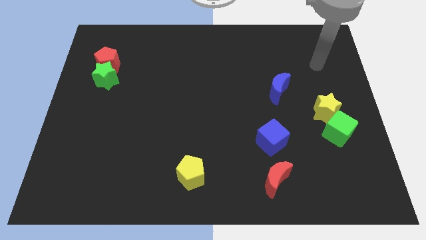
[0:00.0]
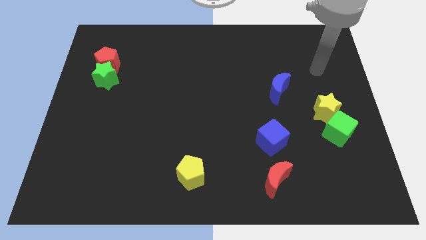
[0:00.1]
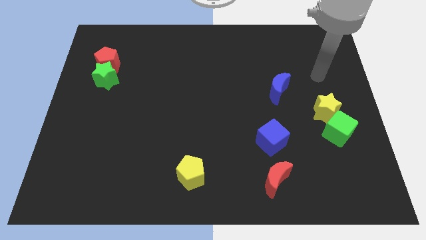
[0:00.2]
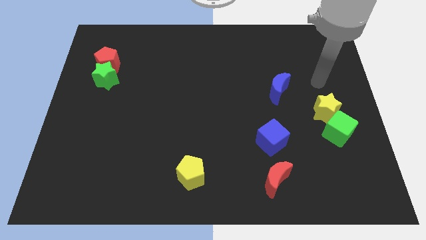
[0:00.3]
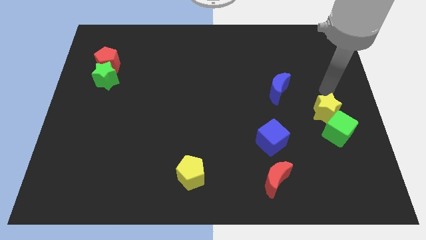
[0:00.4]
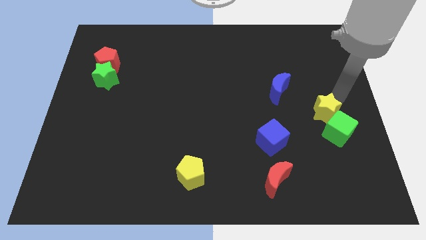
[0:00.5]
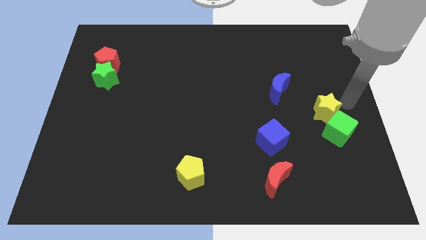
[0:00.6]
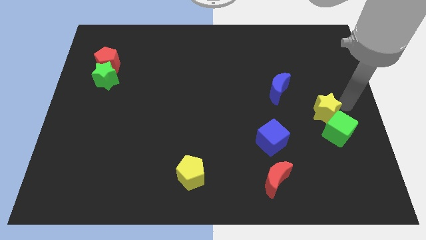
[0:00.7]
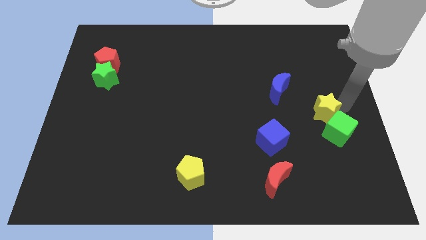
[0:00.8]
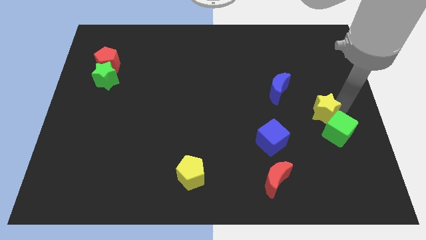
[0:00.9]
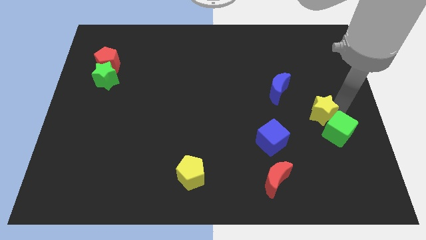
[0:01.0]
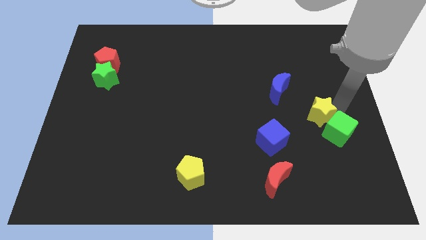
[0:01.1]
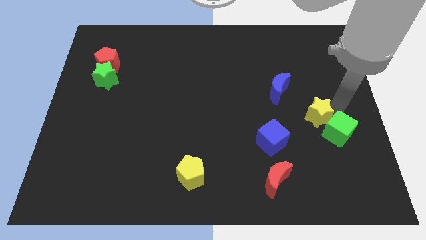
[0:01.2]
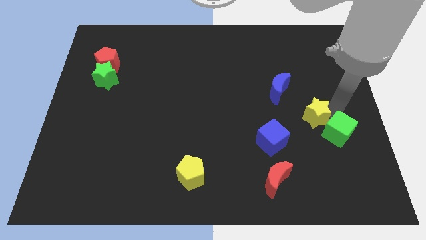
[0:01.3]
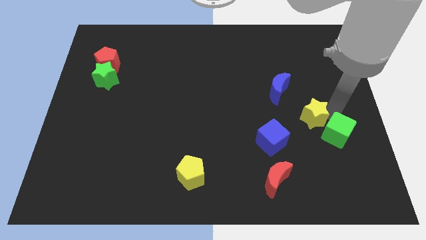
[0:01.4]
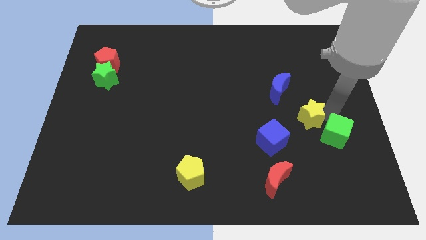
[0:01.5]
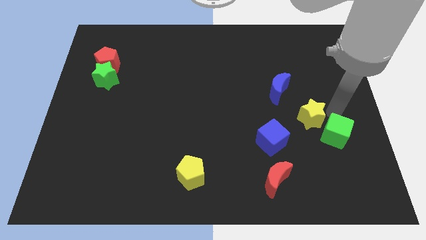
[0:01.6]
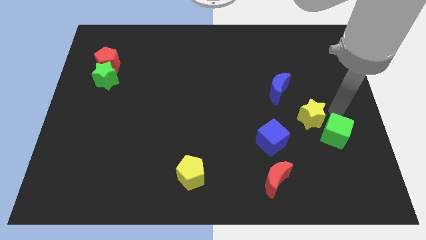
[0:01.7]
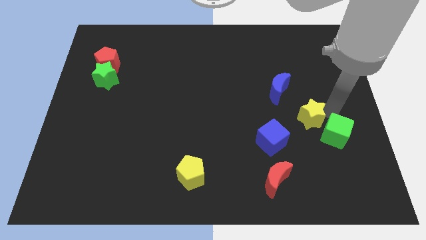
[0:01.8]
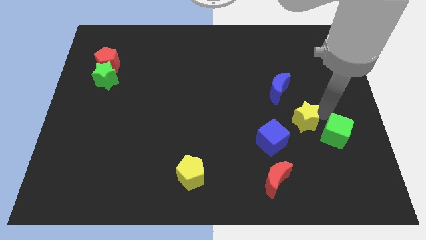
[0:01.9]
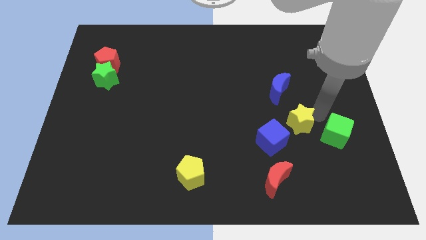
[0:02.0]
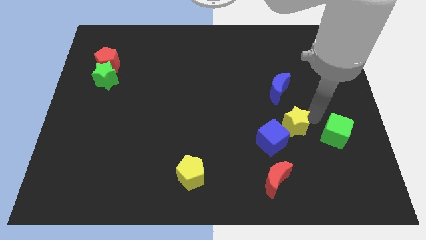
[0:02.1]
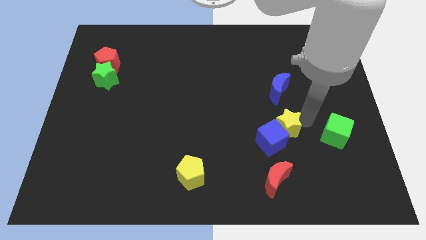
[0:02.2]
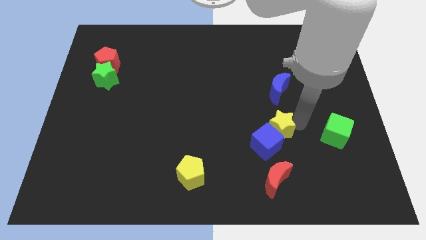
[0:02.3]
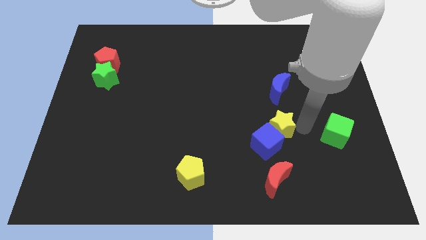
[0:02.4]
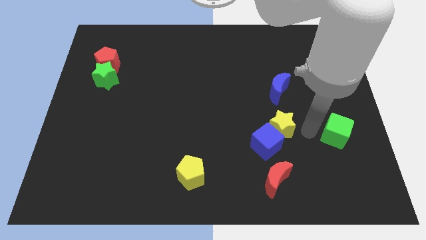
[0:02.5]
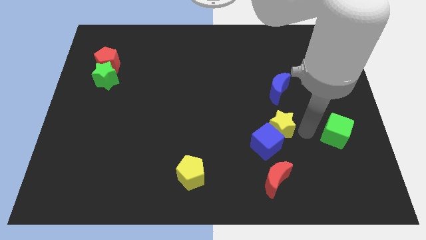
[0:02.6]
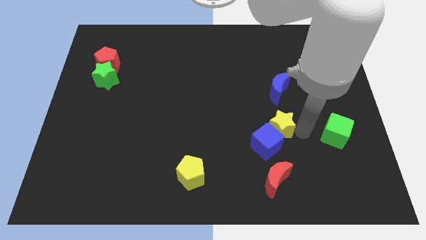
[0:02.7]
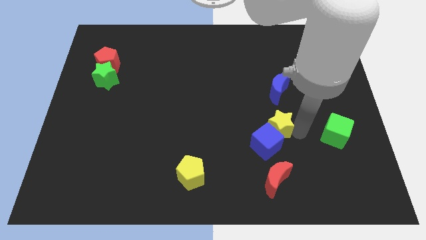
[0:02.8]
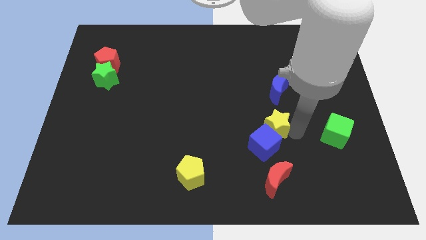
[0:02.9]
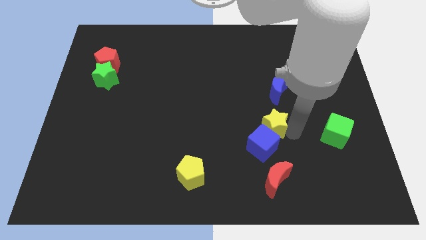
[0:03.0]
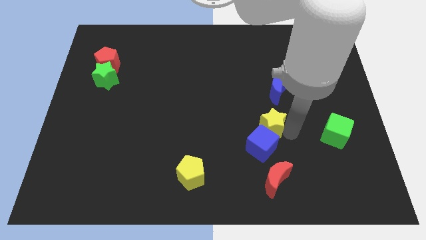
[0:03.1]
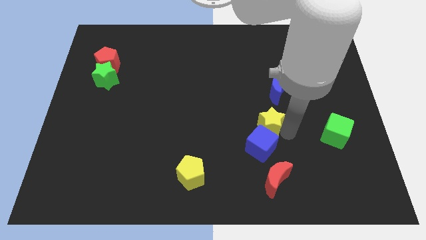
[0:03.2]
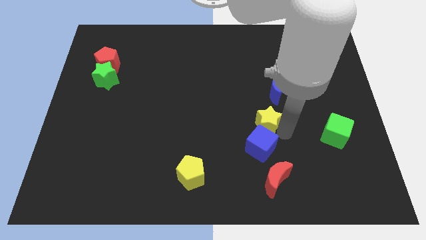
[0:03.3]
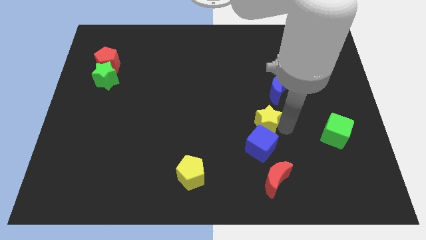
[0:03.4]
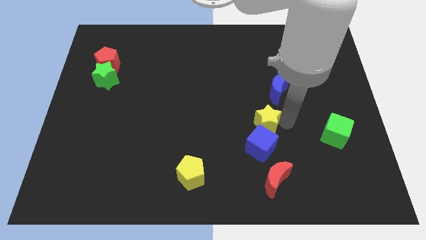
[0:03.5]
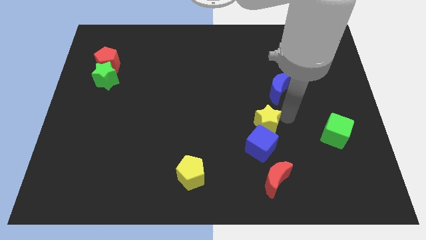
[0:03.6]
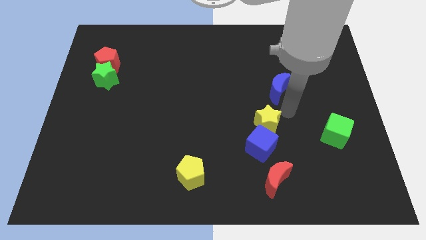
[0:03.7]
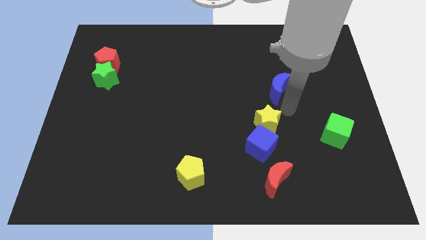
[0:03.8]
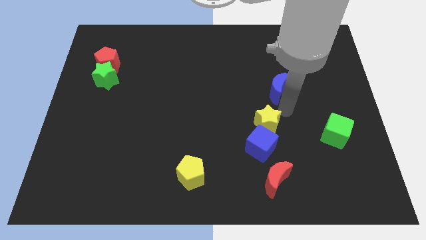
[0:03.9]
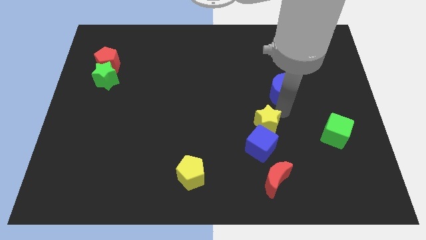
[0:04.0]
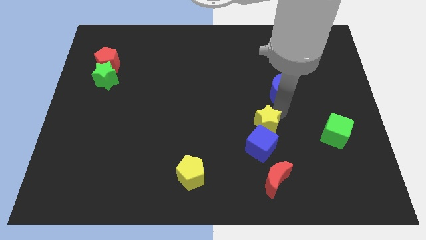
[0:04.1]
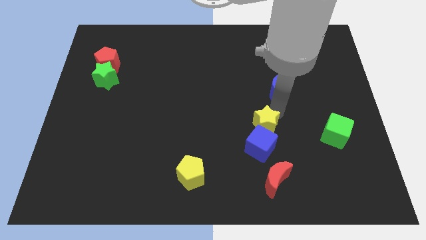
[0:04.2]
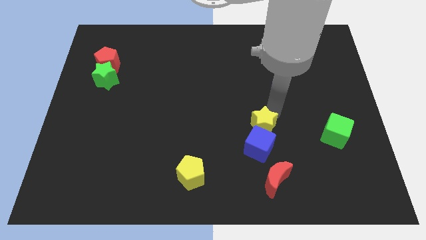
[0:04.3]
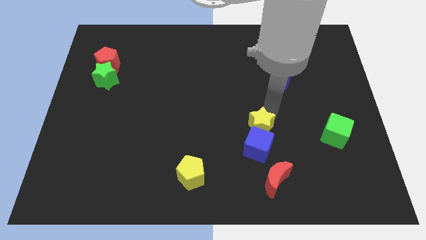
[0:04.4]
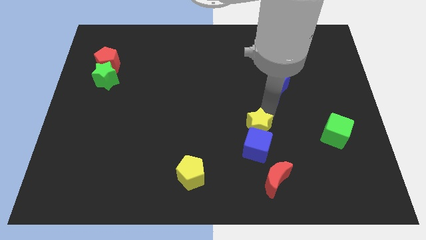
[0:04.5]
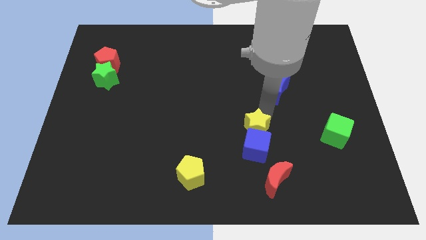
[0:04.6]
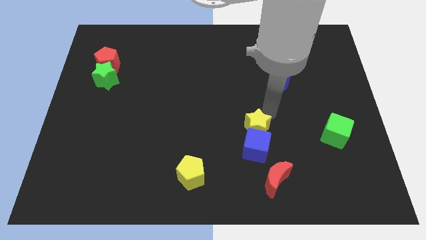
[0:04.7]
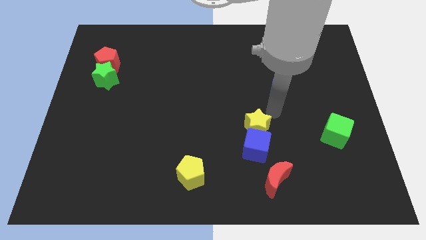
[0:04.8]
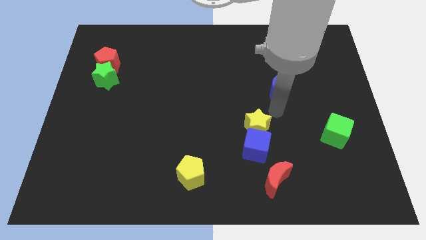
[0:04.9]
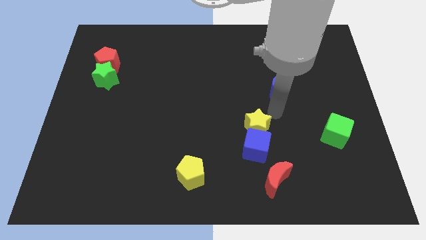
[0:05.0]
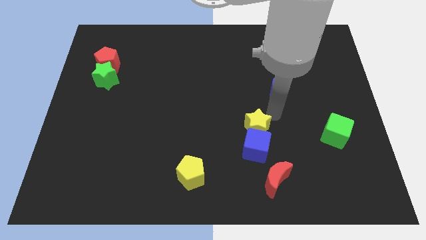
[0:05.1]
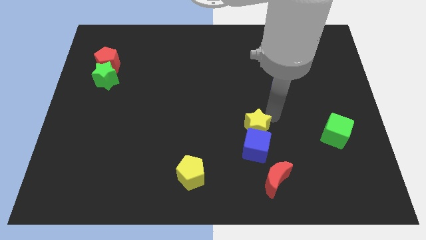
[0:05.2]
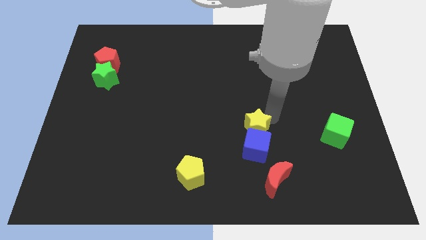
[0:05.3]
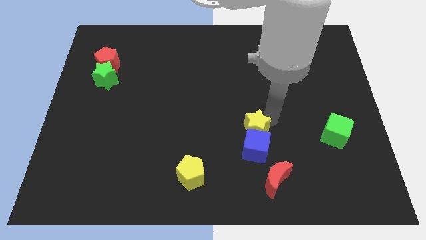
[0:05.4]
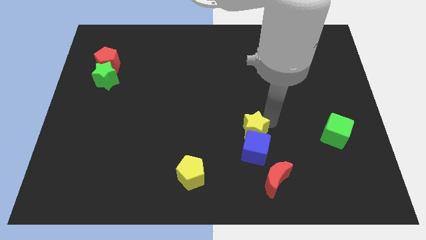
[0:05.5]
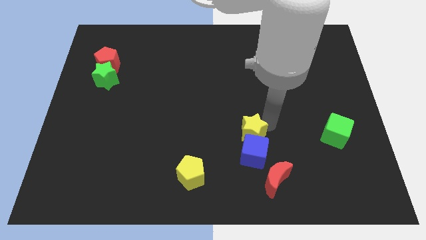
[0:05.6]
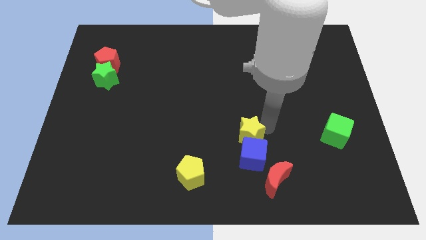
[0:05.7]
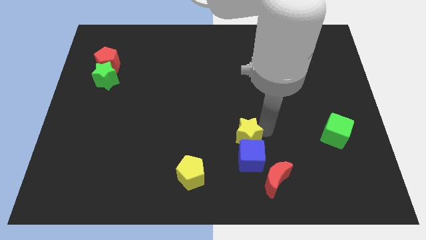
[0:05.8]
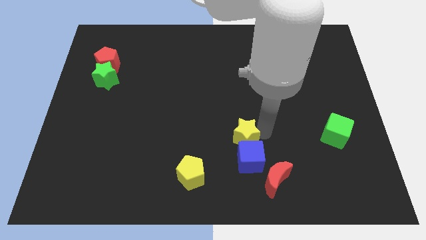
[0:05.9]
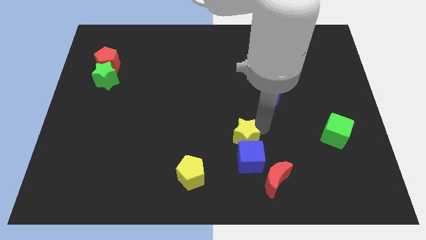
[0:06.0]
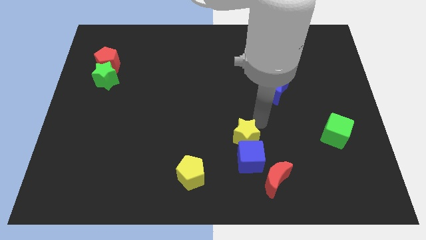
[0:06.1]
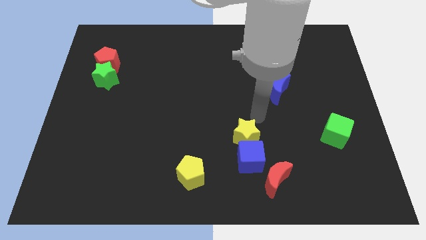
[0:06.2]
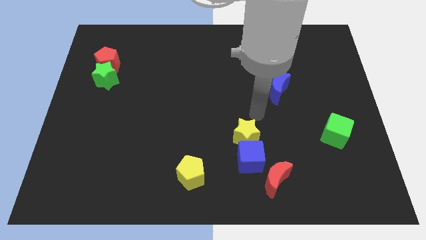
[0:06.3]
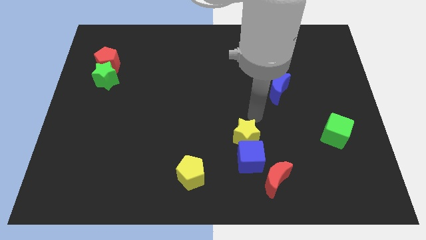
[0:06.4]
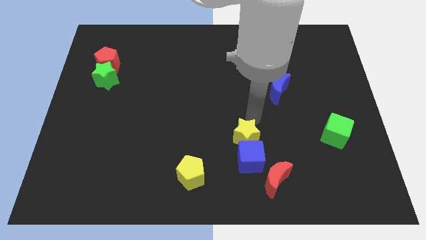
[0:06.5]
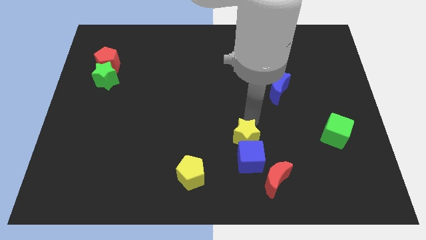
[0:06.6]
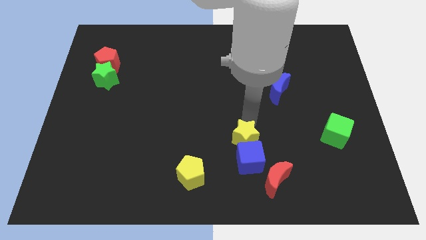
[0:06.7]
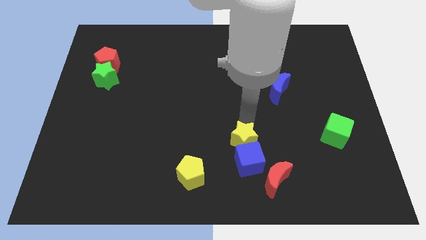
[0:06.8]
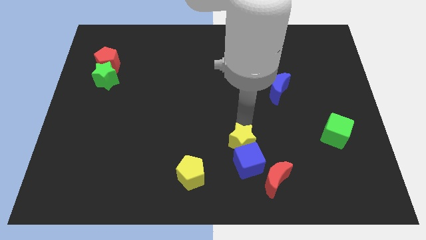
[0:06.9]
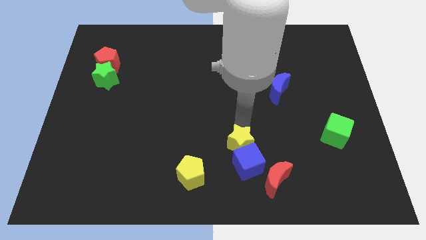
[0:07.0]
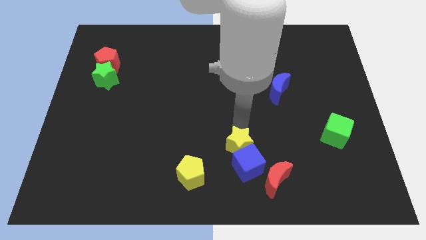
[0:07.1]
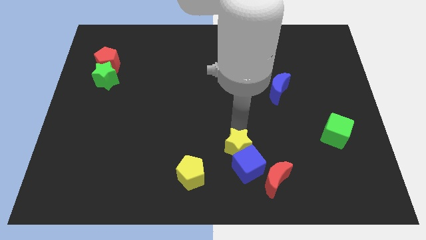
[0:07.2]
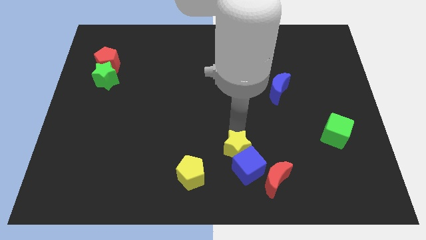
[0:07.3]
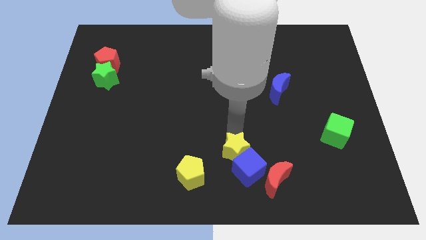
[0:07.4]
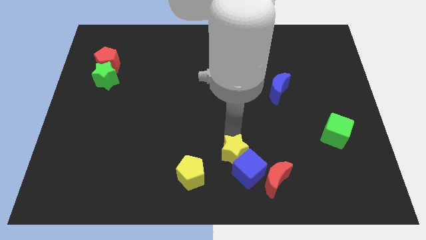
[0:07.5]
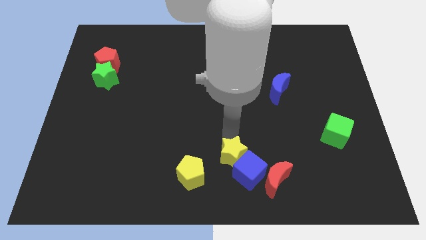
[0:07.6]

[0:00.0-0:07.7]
put the yellow star right of the yellow pentagon
